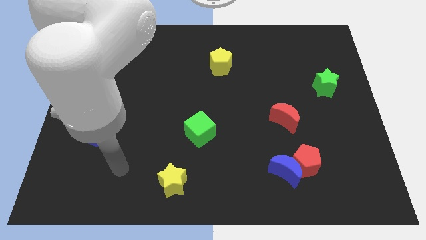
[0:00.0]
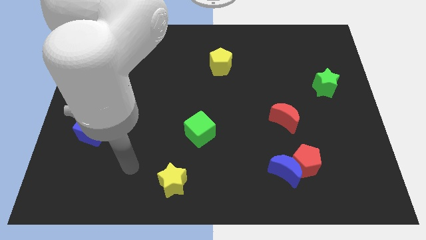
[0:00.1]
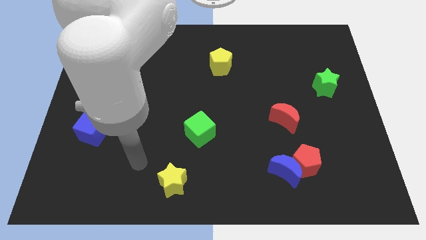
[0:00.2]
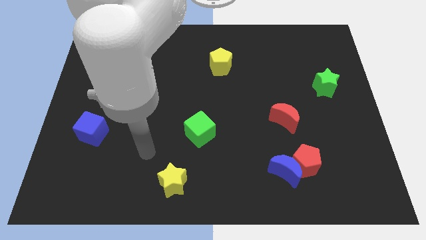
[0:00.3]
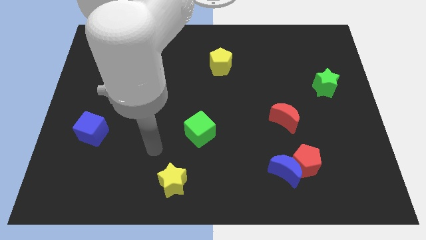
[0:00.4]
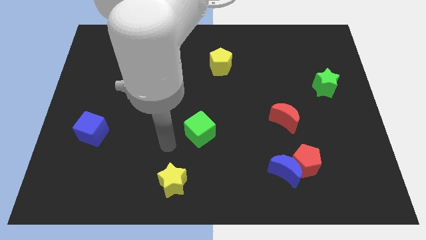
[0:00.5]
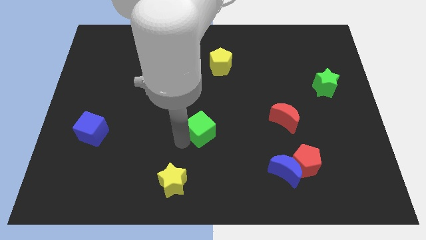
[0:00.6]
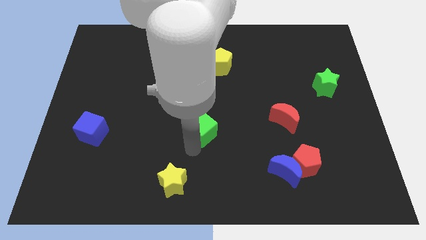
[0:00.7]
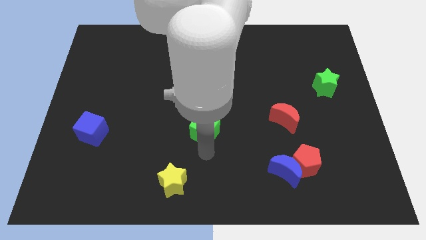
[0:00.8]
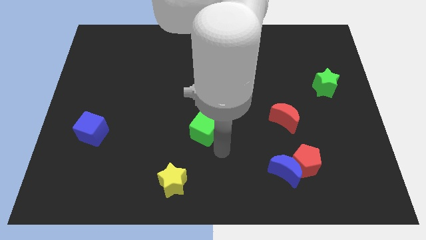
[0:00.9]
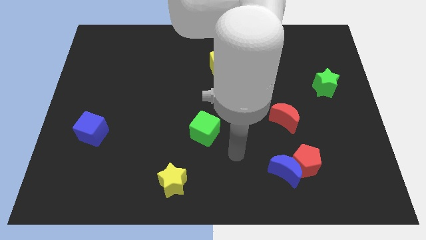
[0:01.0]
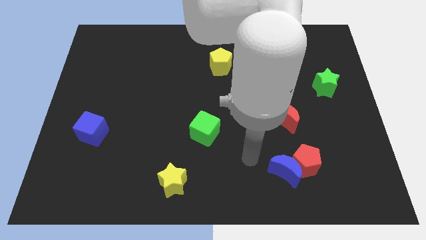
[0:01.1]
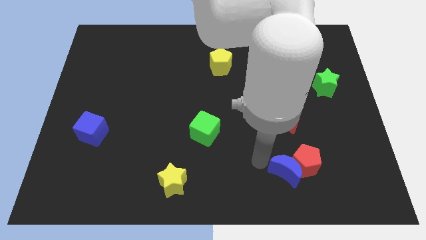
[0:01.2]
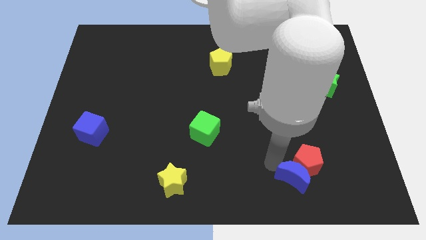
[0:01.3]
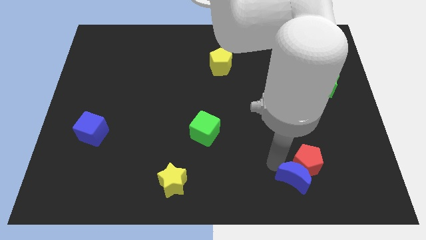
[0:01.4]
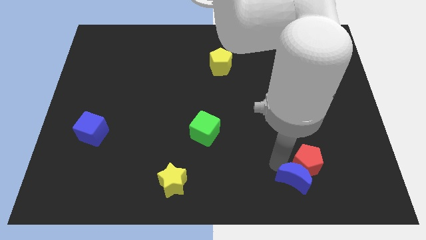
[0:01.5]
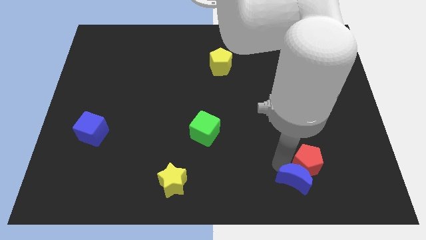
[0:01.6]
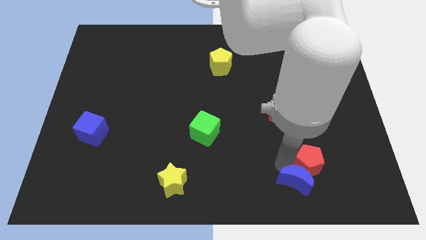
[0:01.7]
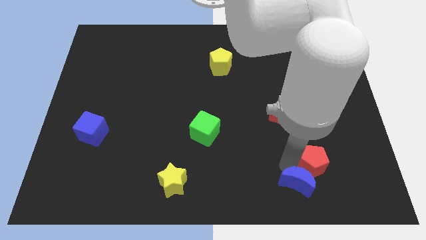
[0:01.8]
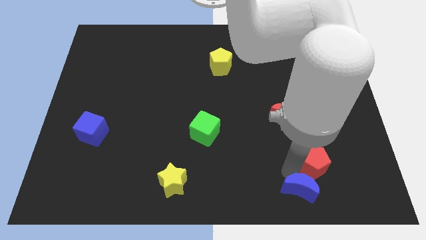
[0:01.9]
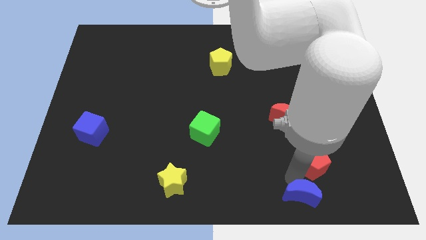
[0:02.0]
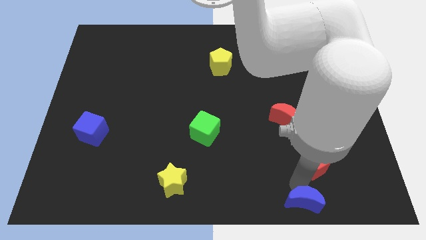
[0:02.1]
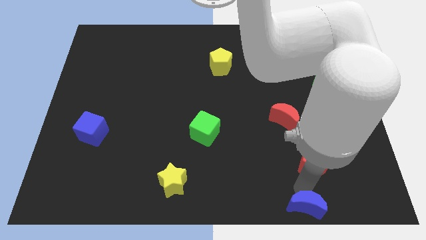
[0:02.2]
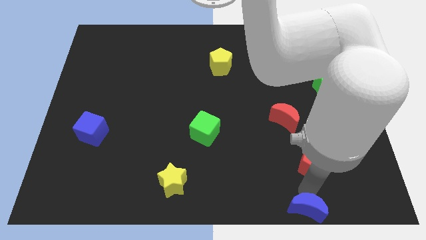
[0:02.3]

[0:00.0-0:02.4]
separate the red pentagon from the blue moon

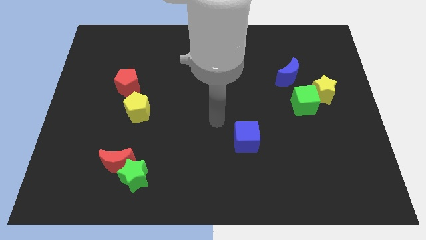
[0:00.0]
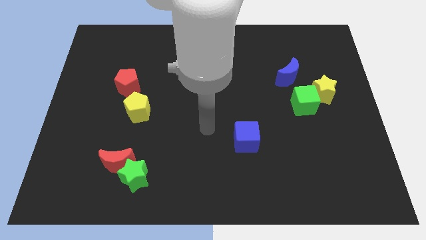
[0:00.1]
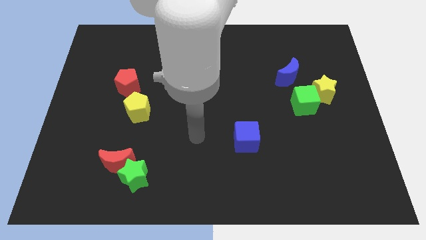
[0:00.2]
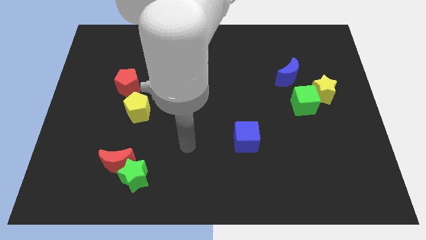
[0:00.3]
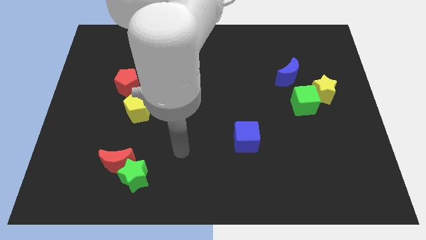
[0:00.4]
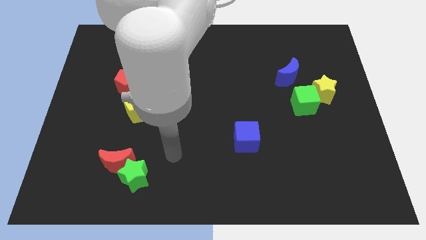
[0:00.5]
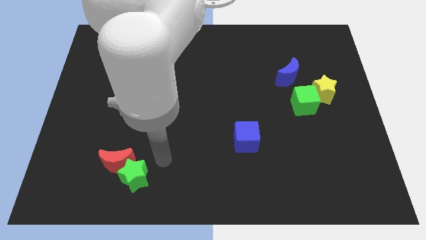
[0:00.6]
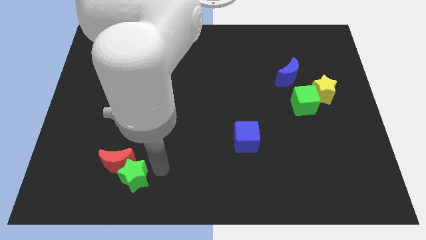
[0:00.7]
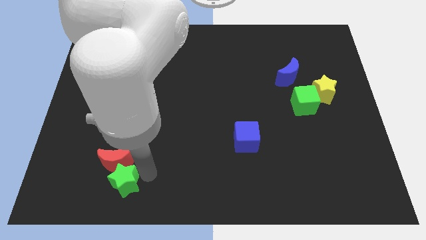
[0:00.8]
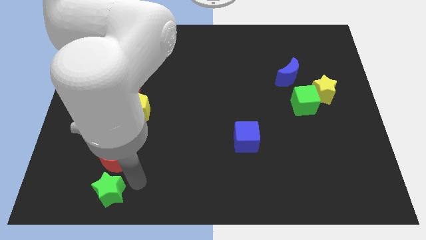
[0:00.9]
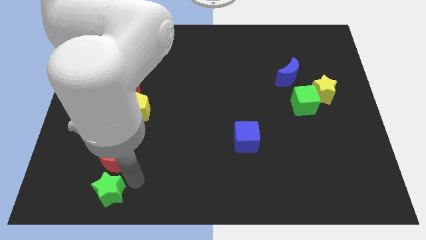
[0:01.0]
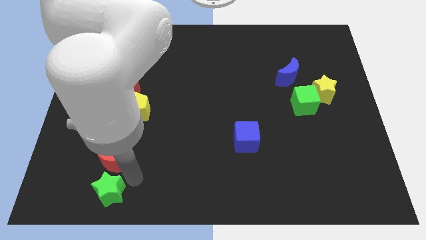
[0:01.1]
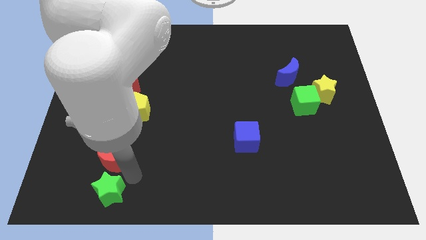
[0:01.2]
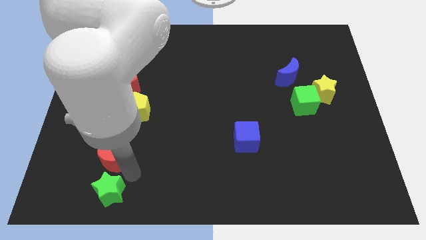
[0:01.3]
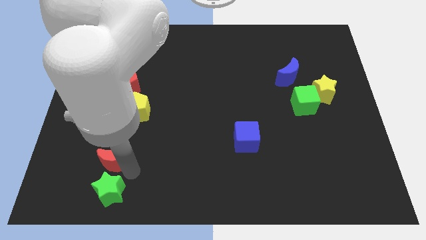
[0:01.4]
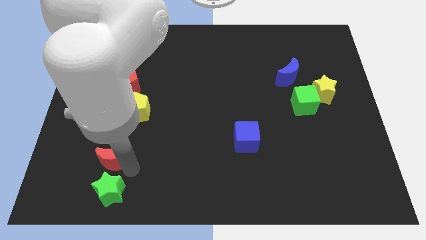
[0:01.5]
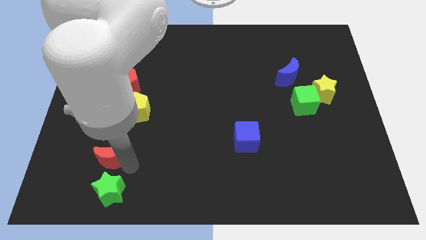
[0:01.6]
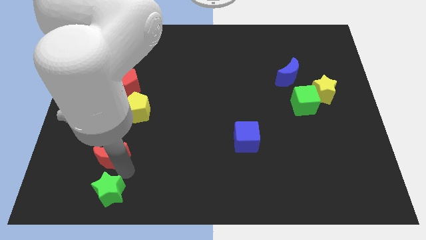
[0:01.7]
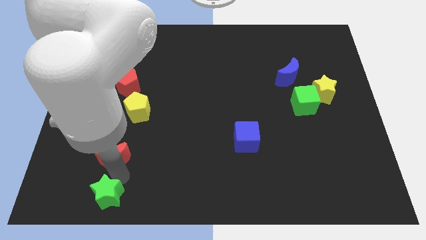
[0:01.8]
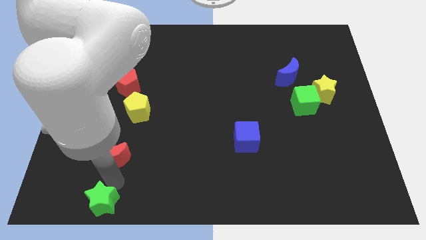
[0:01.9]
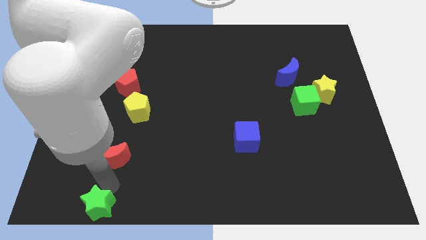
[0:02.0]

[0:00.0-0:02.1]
separate the red moon from the green star

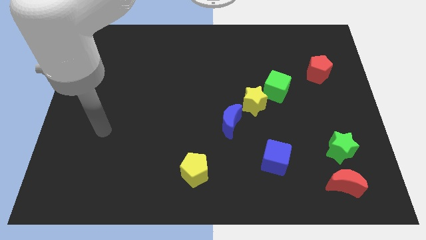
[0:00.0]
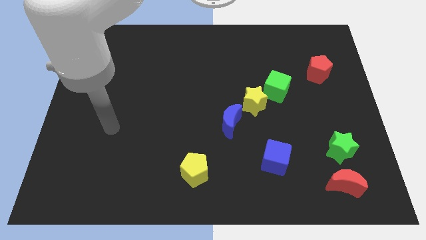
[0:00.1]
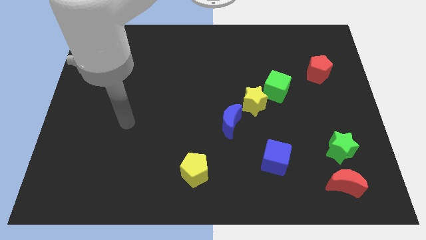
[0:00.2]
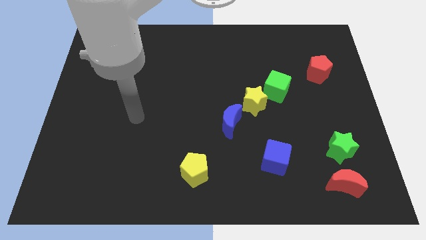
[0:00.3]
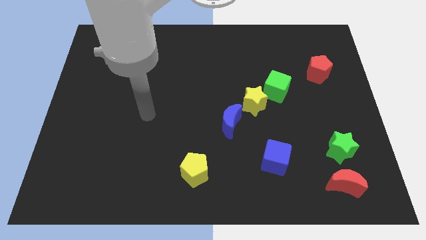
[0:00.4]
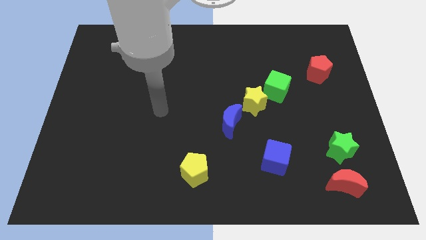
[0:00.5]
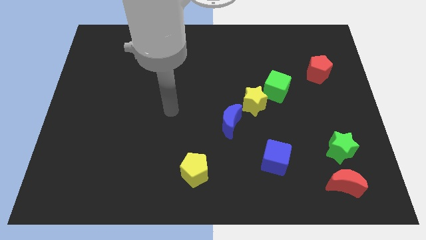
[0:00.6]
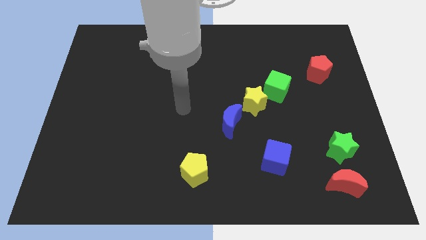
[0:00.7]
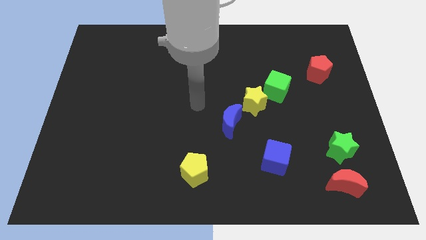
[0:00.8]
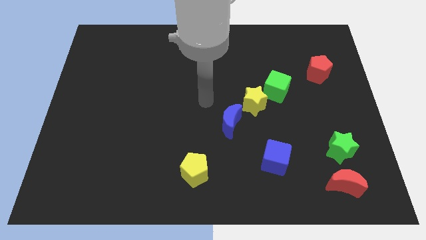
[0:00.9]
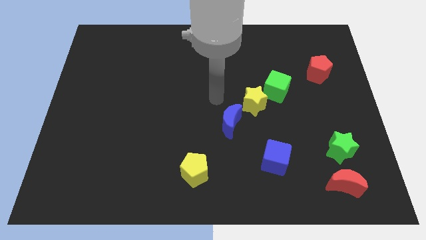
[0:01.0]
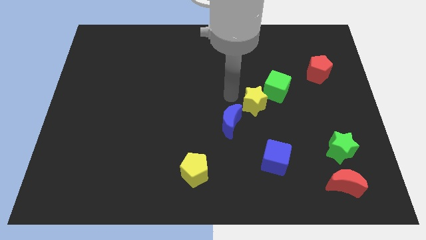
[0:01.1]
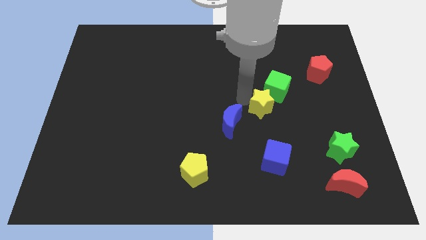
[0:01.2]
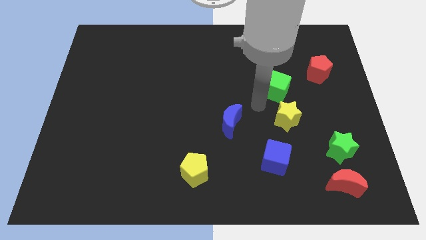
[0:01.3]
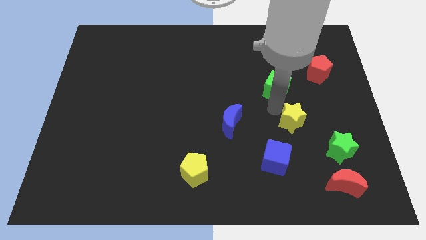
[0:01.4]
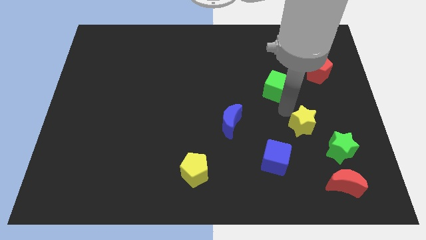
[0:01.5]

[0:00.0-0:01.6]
move the green cube away from the yellow star

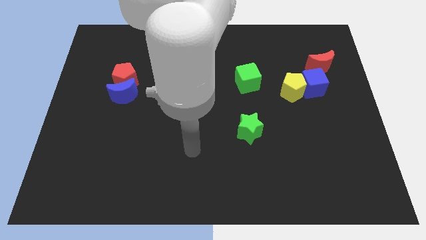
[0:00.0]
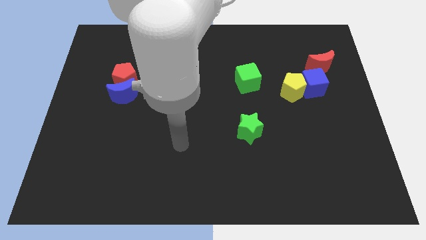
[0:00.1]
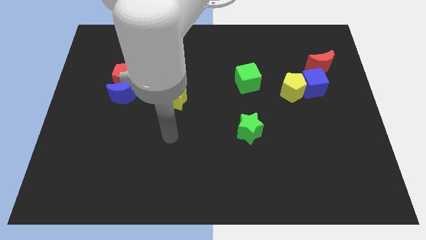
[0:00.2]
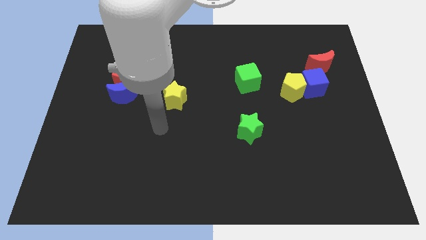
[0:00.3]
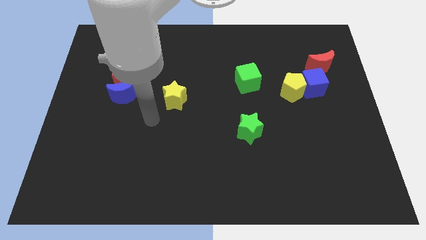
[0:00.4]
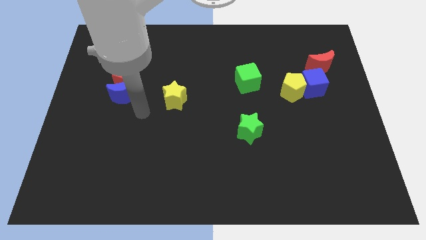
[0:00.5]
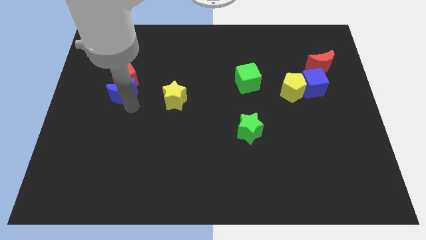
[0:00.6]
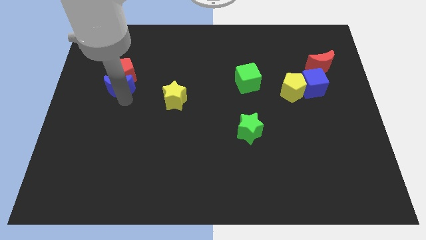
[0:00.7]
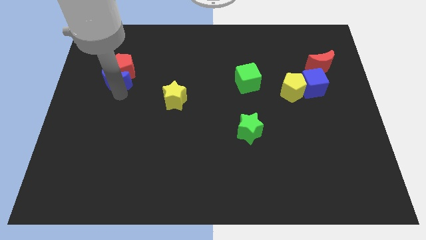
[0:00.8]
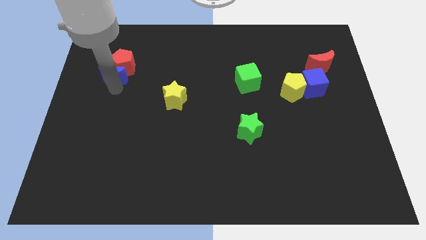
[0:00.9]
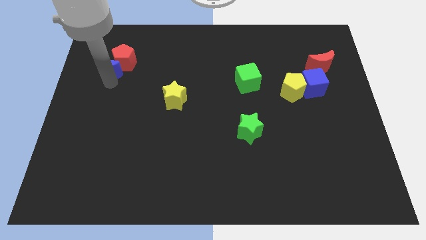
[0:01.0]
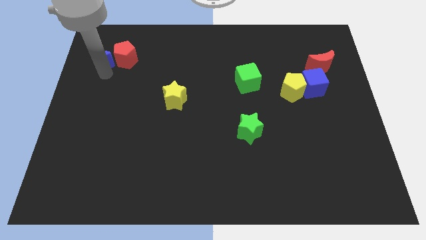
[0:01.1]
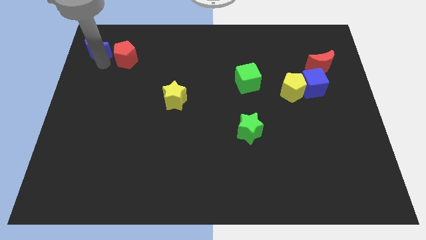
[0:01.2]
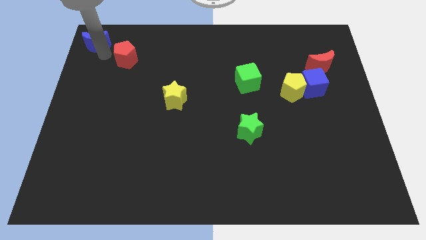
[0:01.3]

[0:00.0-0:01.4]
pull the red pentagon apart from the blue moon

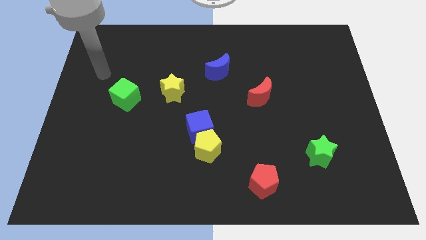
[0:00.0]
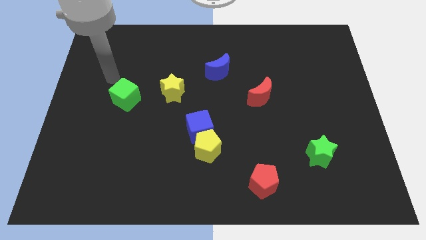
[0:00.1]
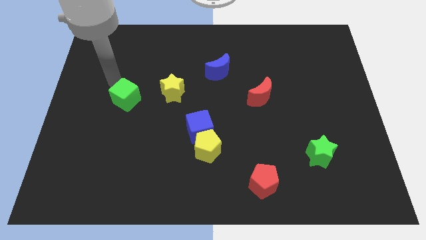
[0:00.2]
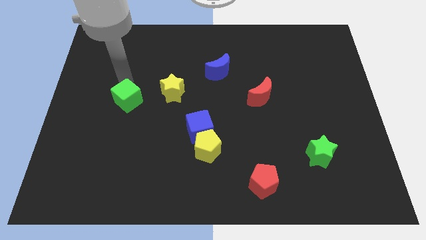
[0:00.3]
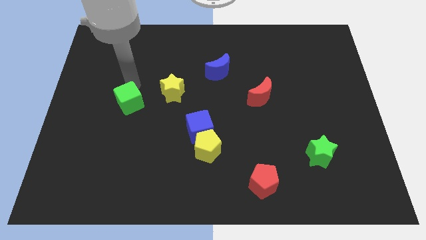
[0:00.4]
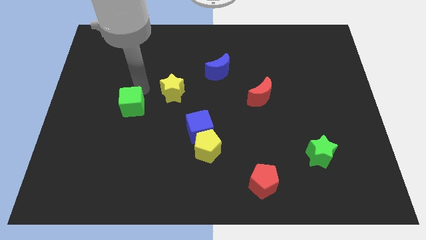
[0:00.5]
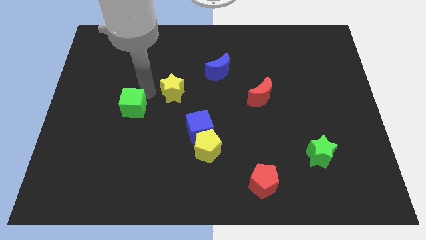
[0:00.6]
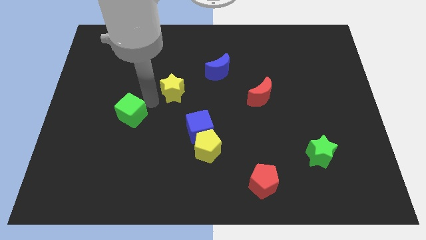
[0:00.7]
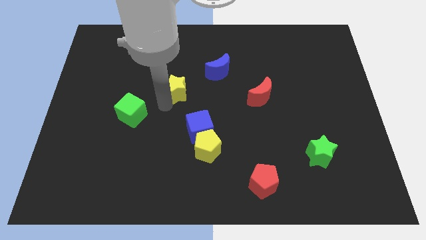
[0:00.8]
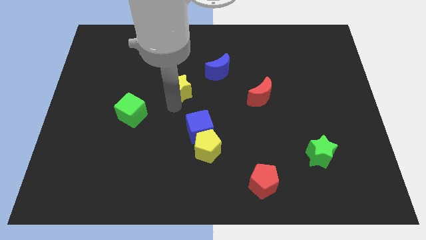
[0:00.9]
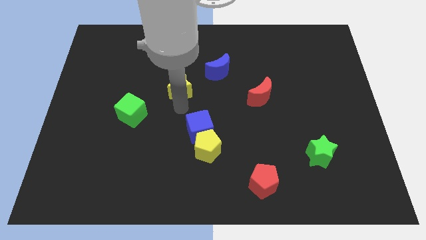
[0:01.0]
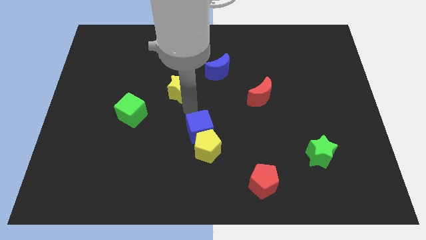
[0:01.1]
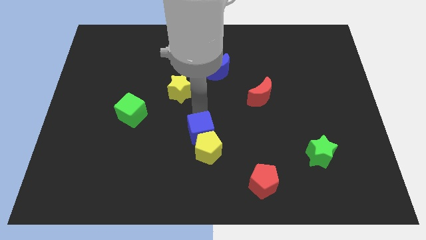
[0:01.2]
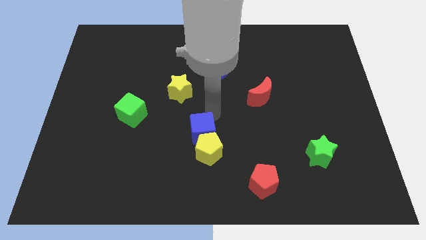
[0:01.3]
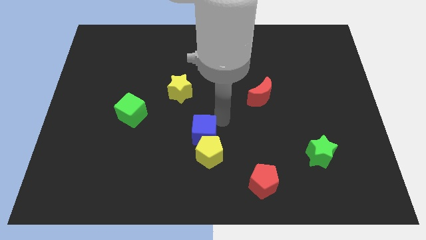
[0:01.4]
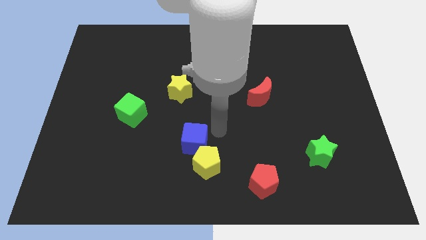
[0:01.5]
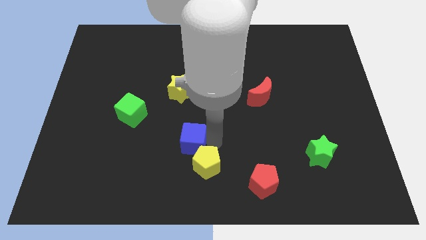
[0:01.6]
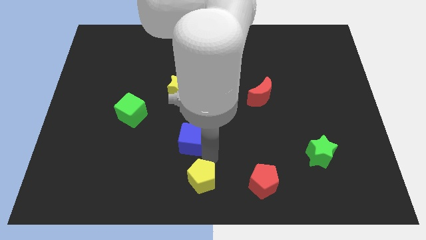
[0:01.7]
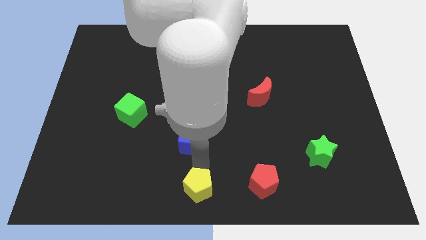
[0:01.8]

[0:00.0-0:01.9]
separate the blue cube from the yellow pentagon
